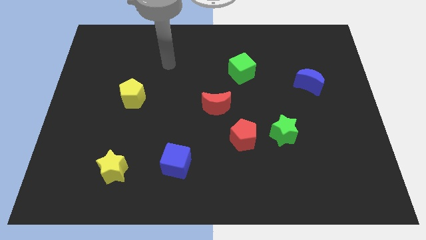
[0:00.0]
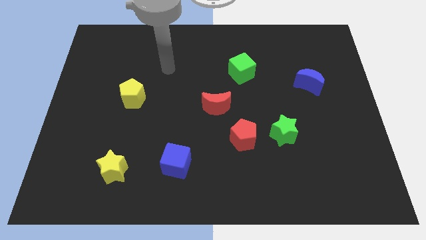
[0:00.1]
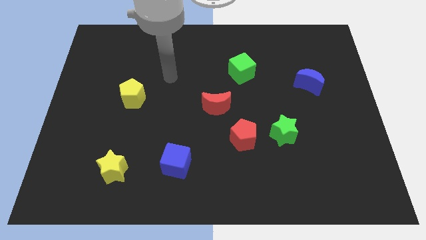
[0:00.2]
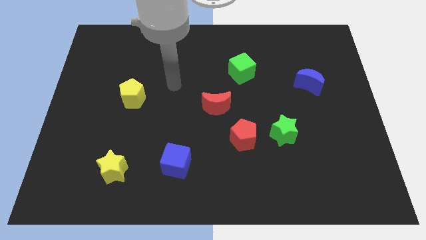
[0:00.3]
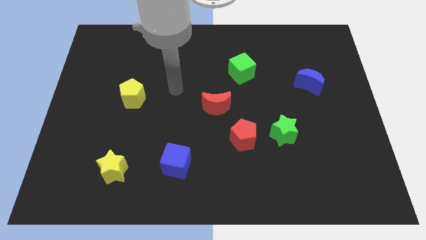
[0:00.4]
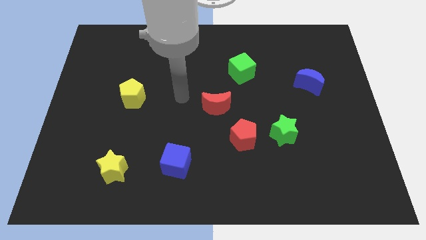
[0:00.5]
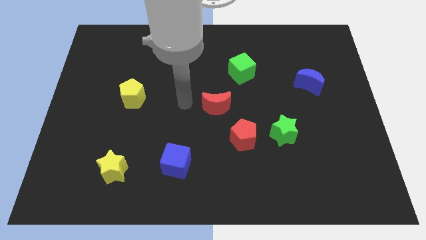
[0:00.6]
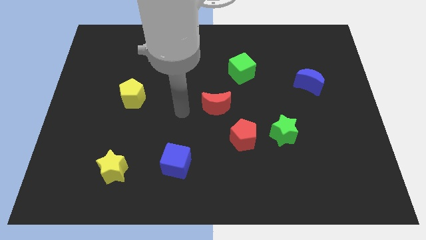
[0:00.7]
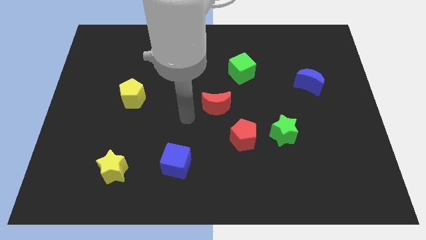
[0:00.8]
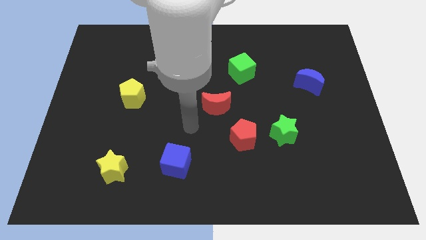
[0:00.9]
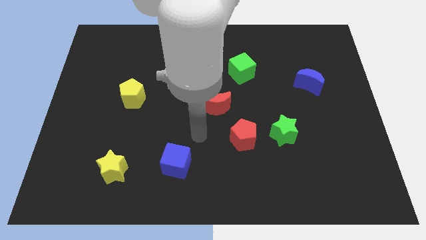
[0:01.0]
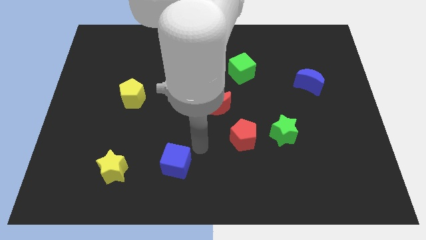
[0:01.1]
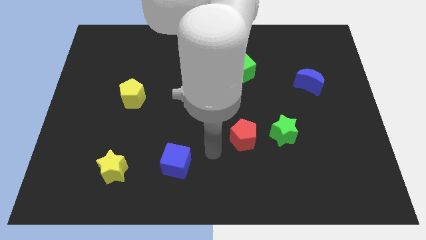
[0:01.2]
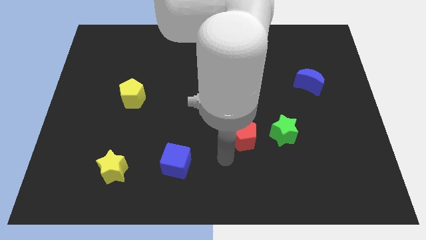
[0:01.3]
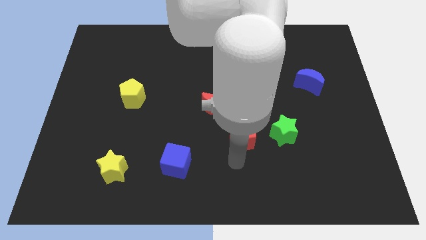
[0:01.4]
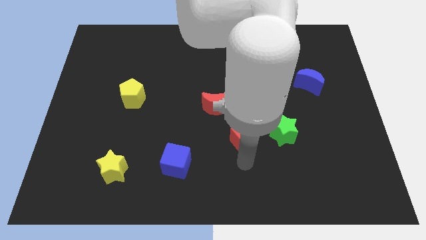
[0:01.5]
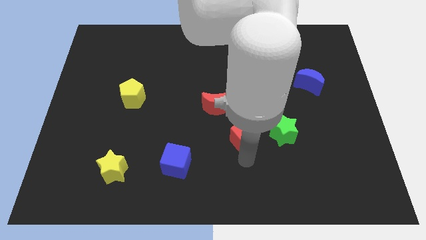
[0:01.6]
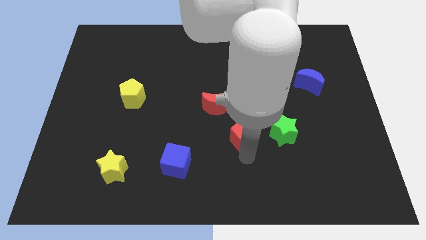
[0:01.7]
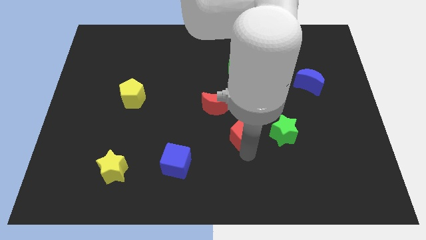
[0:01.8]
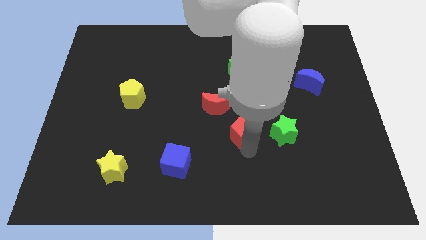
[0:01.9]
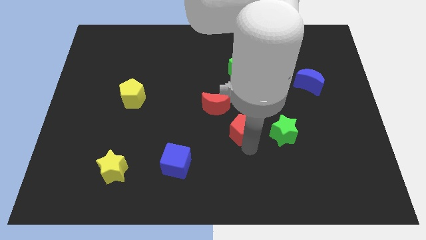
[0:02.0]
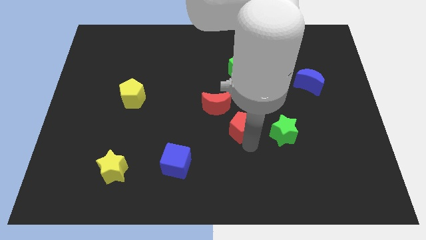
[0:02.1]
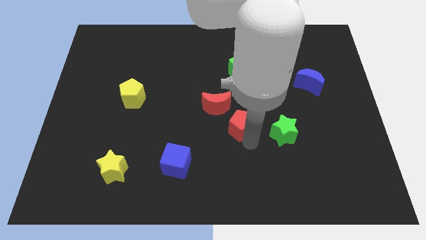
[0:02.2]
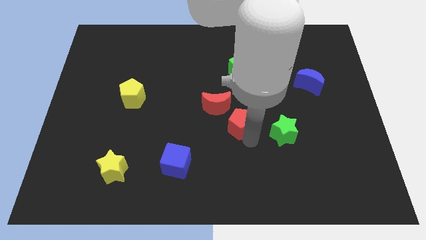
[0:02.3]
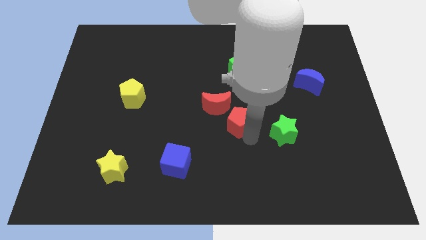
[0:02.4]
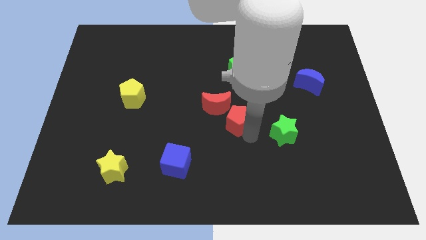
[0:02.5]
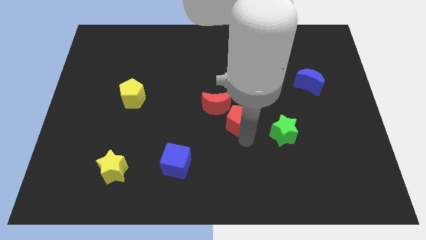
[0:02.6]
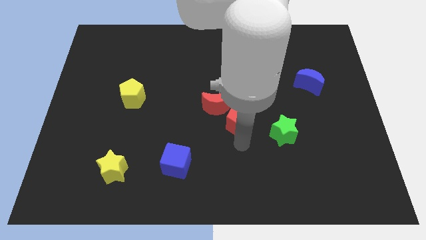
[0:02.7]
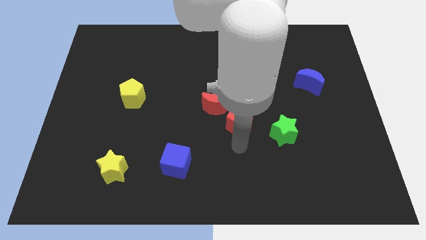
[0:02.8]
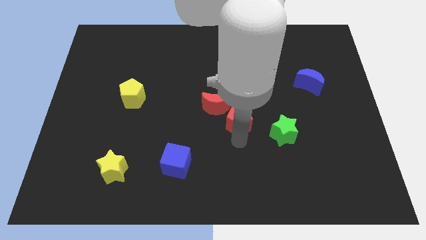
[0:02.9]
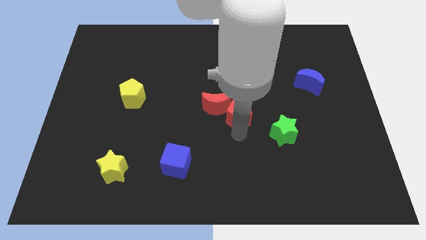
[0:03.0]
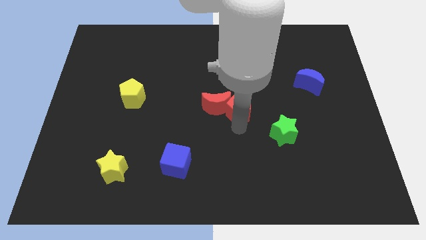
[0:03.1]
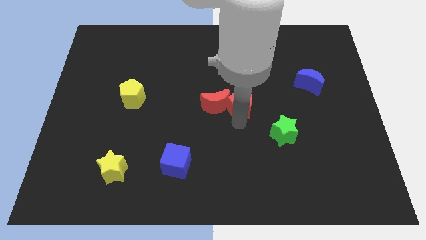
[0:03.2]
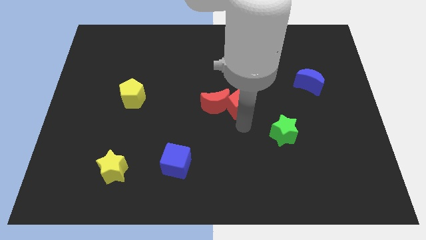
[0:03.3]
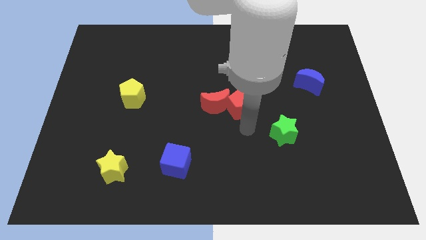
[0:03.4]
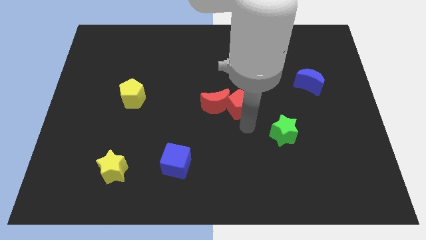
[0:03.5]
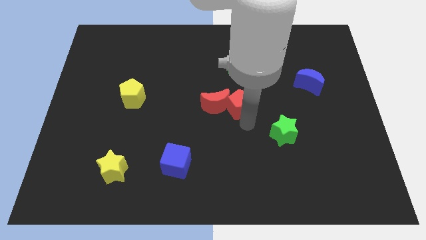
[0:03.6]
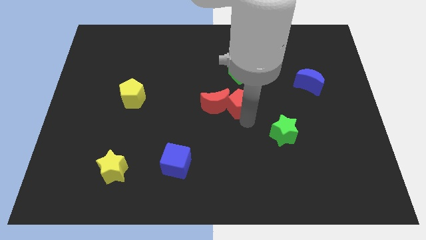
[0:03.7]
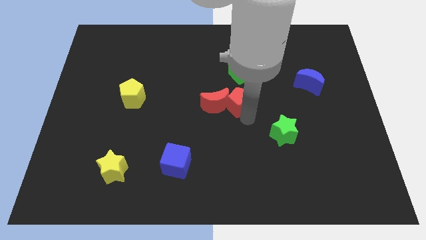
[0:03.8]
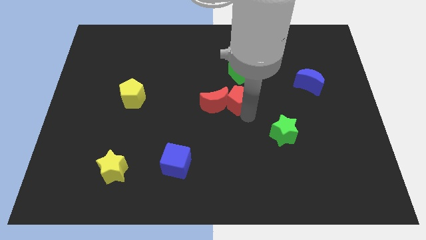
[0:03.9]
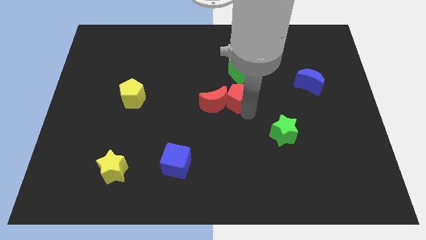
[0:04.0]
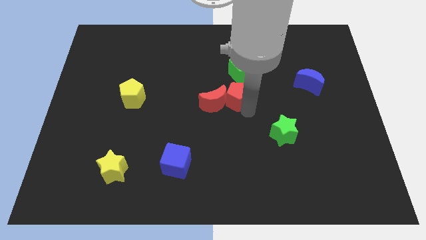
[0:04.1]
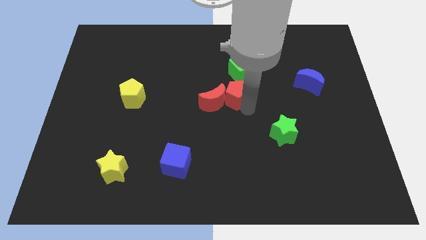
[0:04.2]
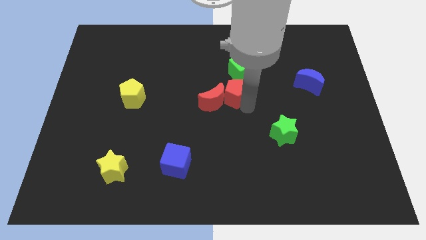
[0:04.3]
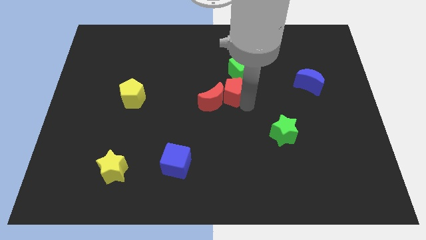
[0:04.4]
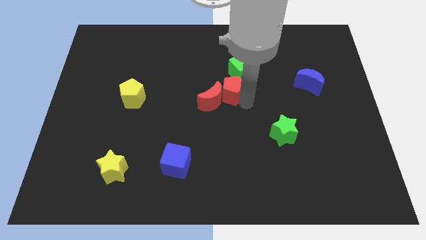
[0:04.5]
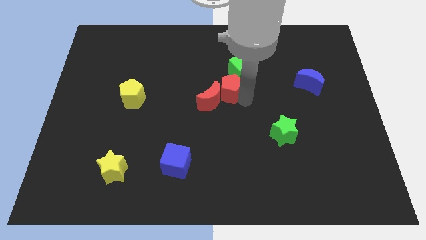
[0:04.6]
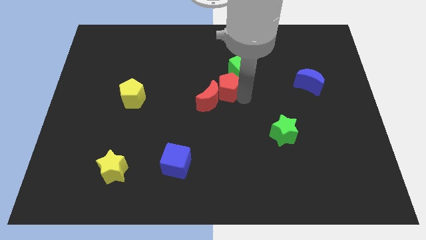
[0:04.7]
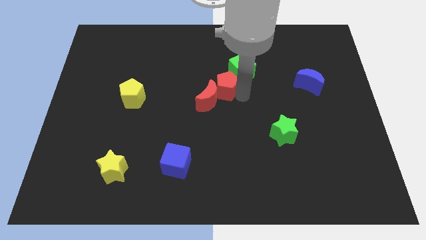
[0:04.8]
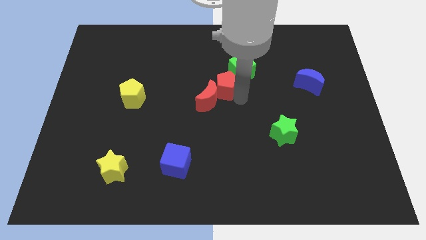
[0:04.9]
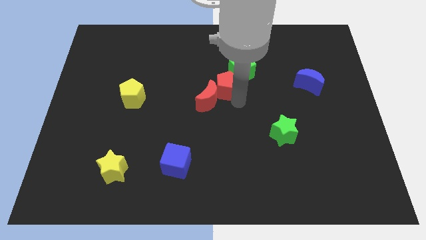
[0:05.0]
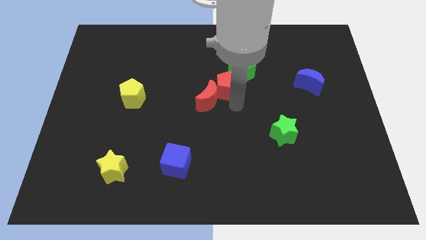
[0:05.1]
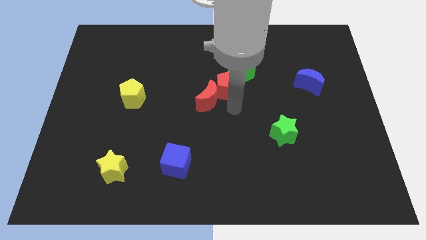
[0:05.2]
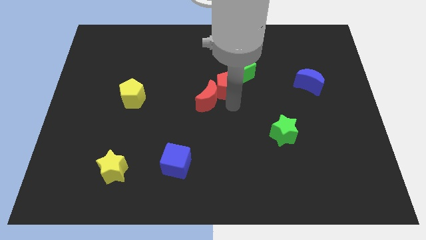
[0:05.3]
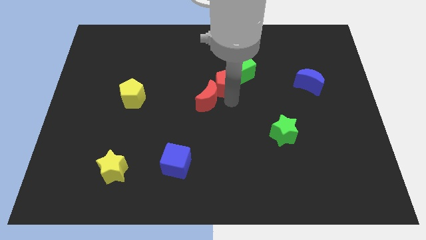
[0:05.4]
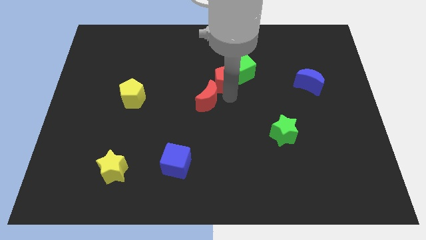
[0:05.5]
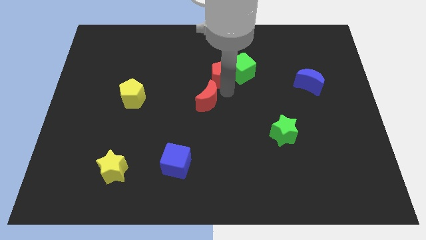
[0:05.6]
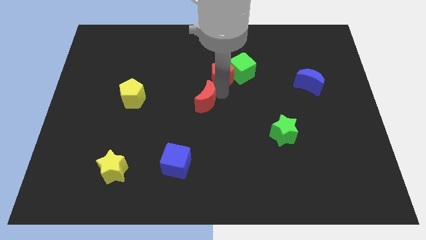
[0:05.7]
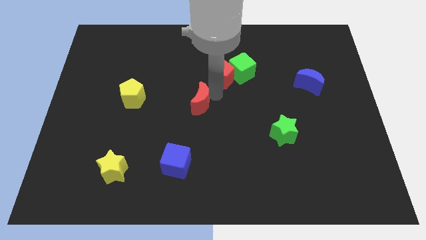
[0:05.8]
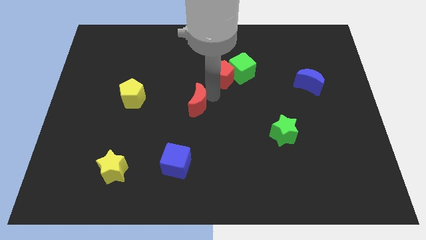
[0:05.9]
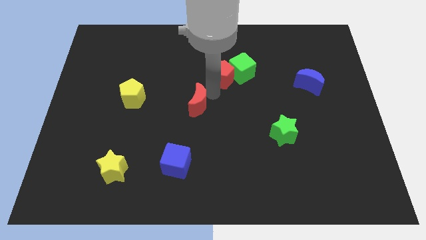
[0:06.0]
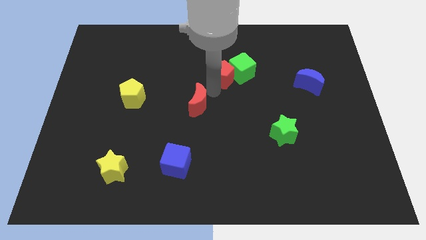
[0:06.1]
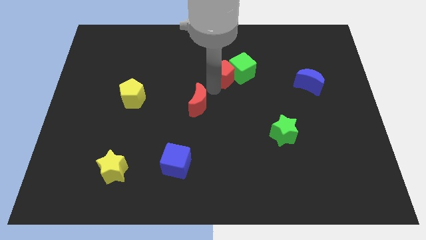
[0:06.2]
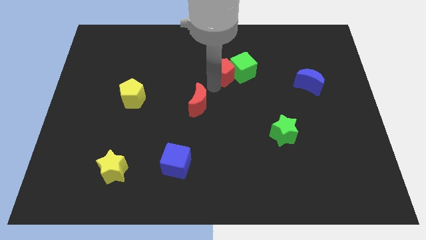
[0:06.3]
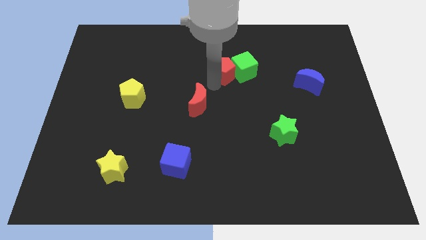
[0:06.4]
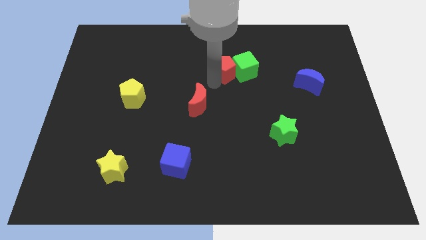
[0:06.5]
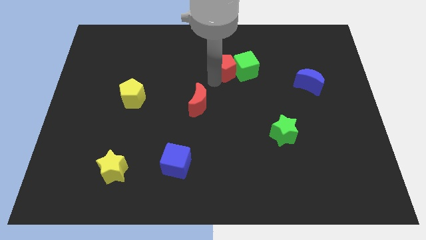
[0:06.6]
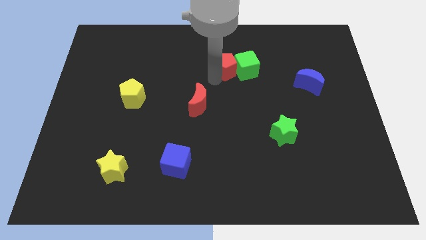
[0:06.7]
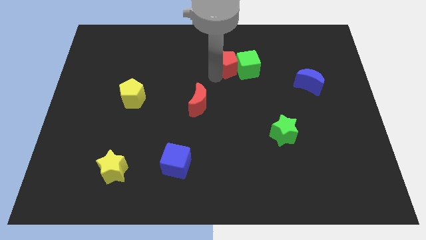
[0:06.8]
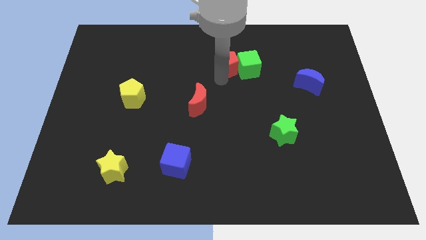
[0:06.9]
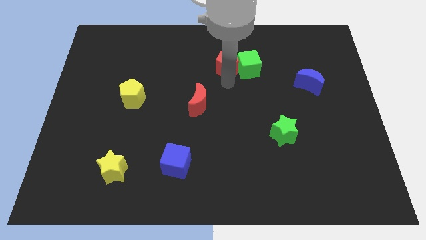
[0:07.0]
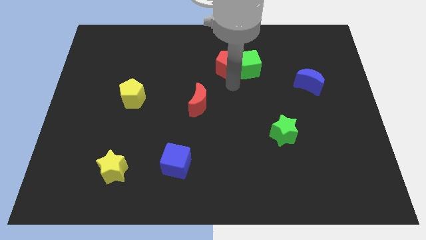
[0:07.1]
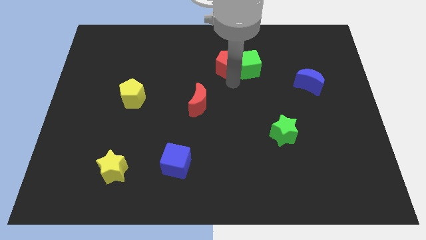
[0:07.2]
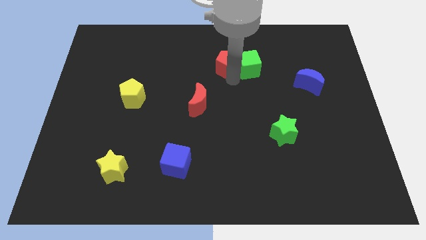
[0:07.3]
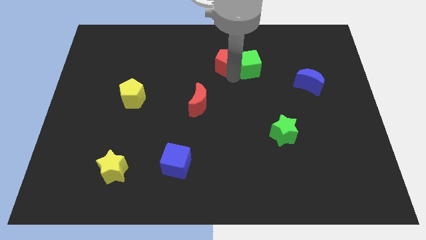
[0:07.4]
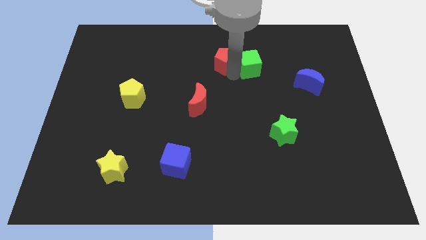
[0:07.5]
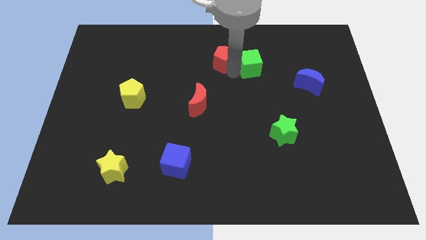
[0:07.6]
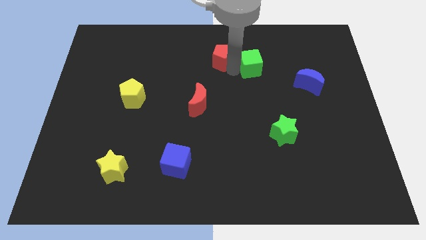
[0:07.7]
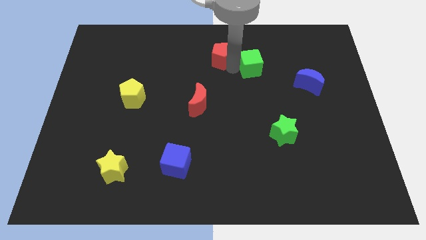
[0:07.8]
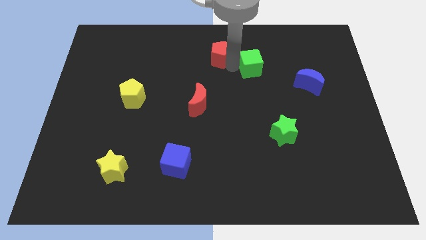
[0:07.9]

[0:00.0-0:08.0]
slide the red pentagon to the towards your base

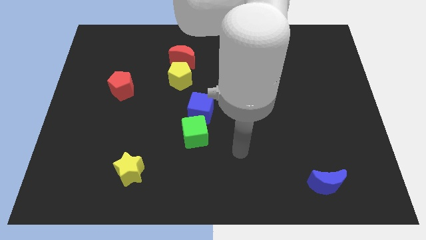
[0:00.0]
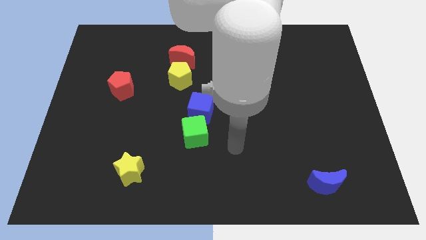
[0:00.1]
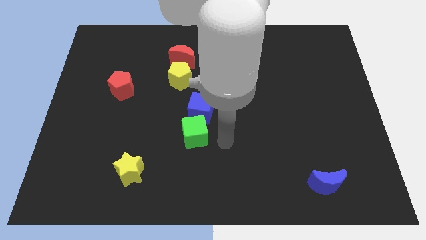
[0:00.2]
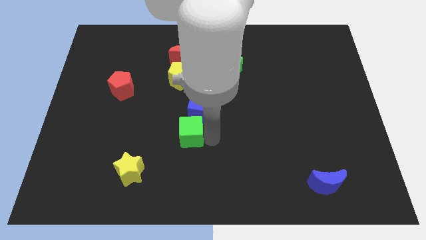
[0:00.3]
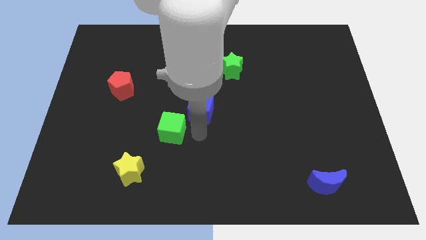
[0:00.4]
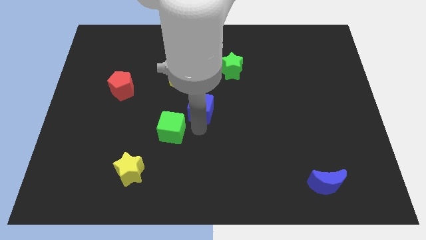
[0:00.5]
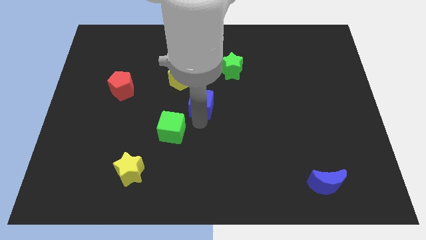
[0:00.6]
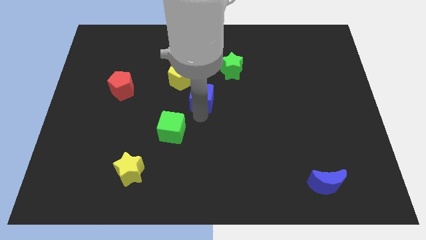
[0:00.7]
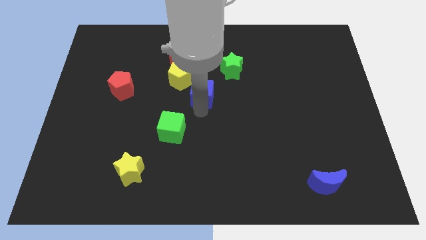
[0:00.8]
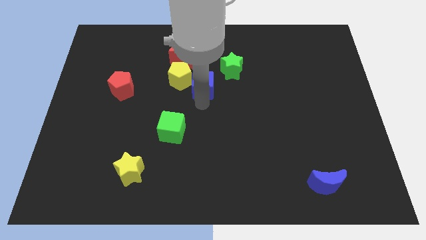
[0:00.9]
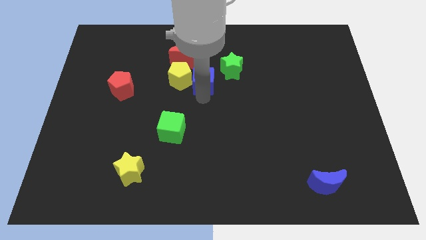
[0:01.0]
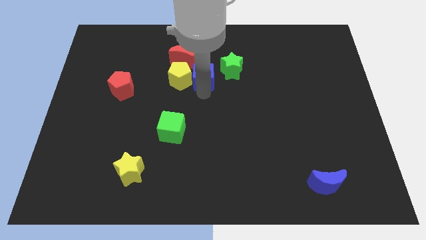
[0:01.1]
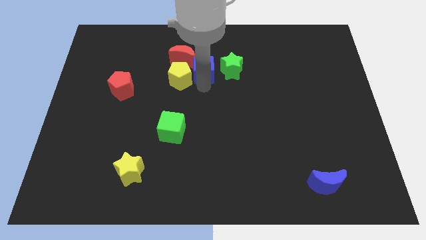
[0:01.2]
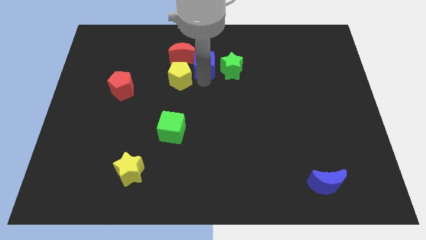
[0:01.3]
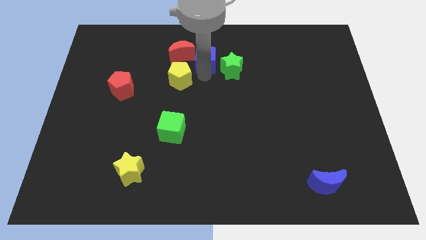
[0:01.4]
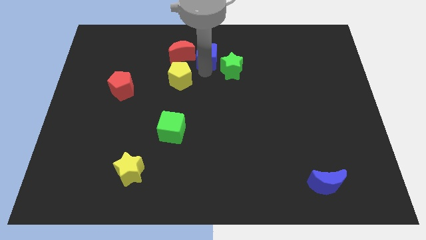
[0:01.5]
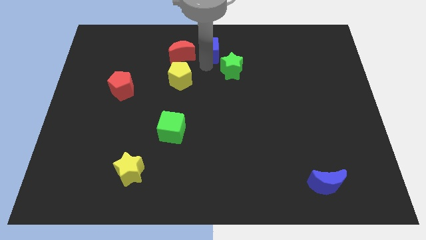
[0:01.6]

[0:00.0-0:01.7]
slide the blue cube to the top side
